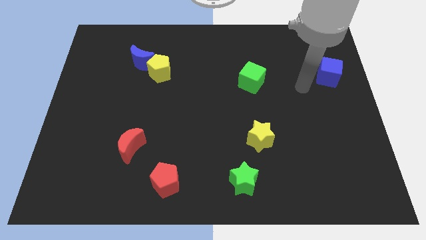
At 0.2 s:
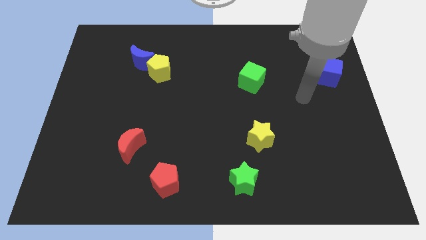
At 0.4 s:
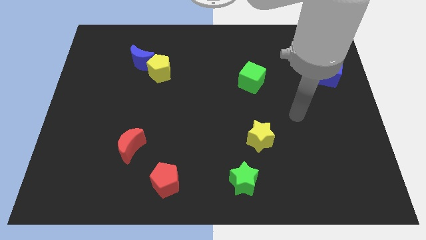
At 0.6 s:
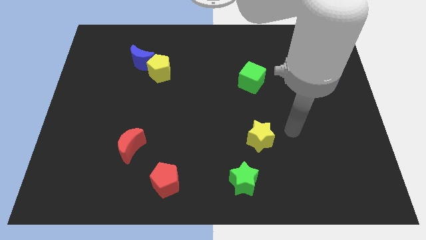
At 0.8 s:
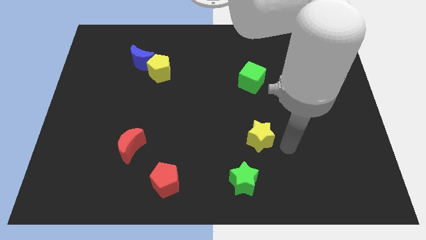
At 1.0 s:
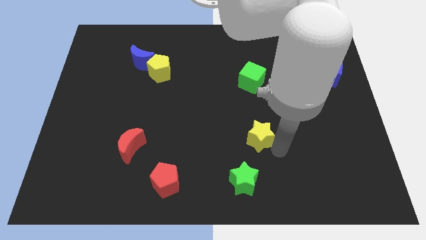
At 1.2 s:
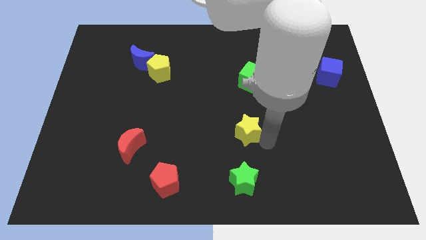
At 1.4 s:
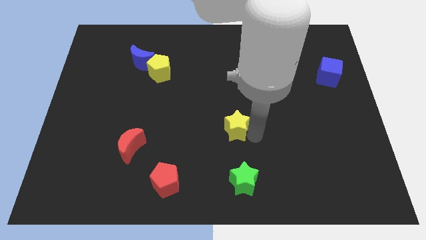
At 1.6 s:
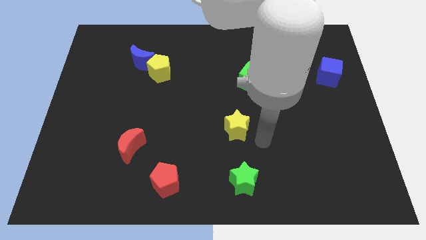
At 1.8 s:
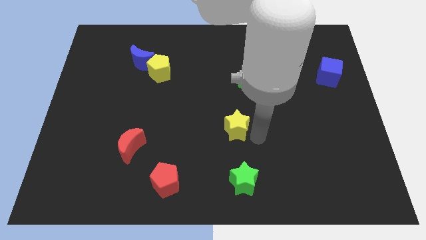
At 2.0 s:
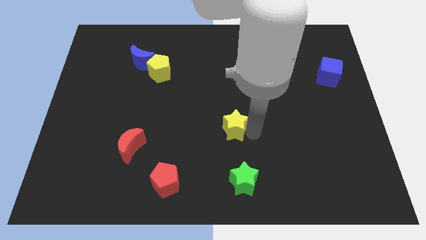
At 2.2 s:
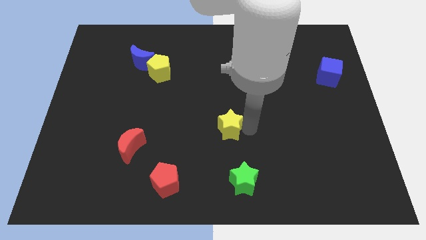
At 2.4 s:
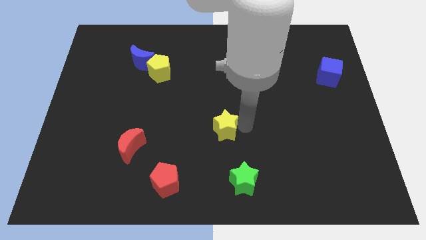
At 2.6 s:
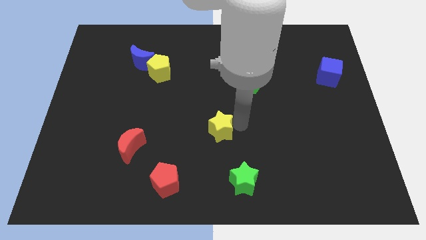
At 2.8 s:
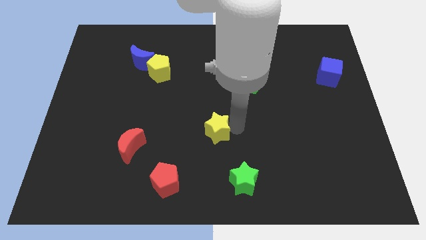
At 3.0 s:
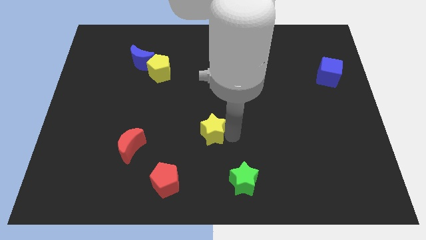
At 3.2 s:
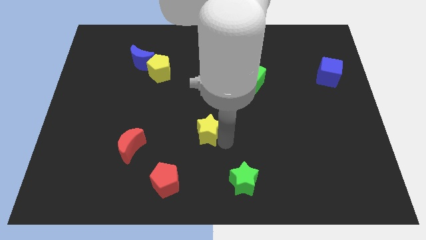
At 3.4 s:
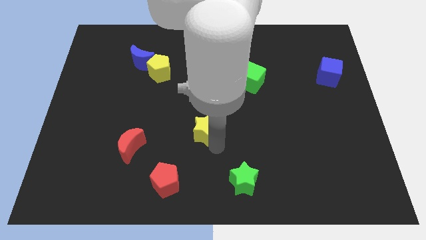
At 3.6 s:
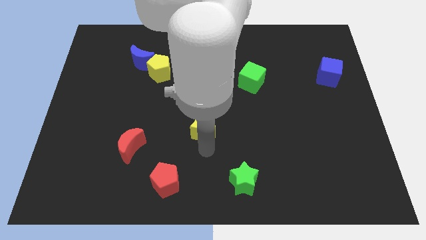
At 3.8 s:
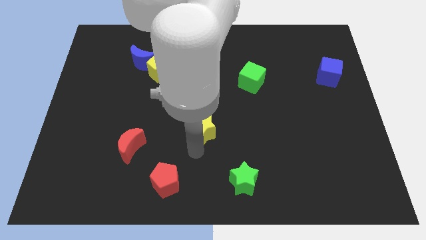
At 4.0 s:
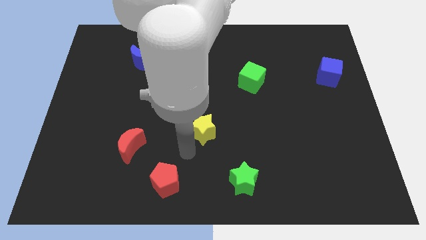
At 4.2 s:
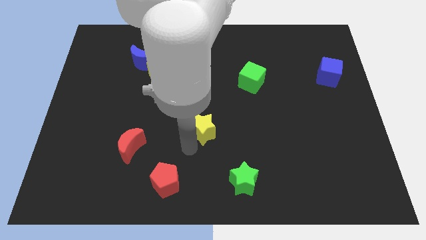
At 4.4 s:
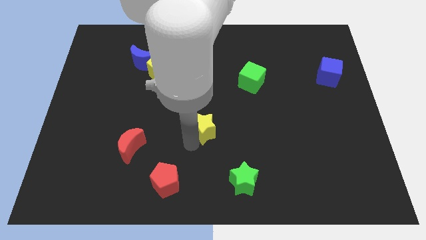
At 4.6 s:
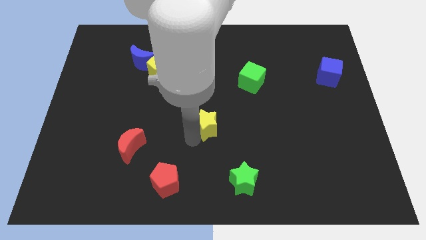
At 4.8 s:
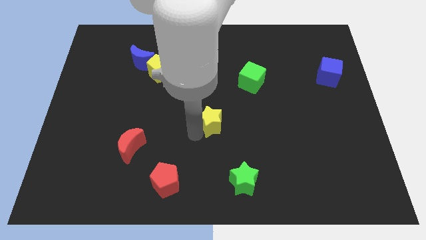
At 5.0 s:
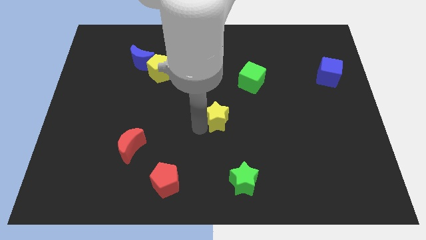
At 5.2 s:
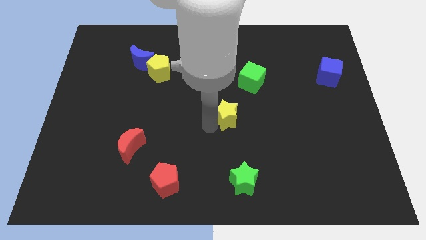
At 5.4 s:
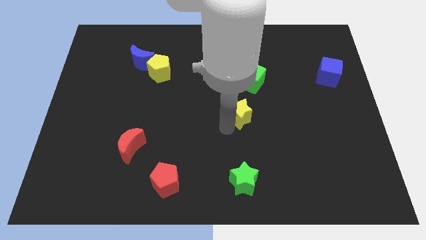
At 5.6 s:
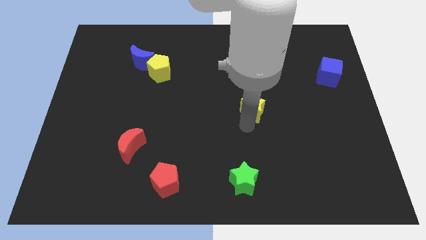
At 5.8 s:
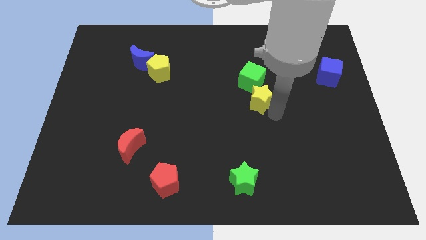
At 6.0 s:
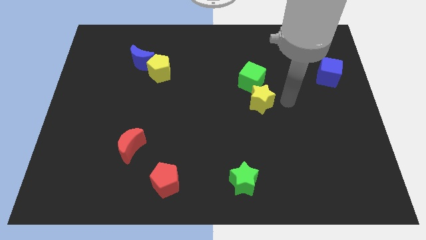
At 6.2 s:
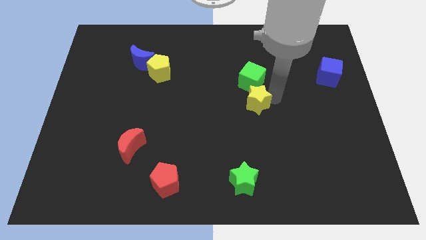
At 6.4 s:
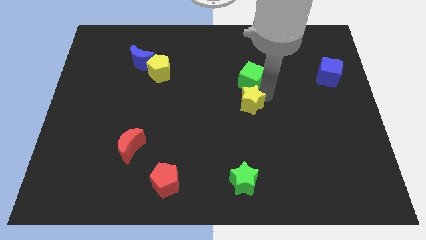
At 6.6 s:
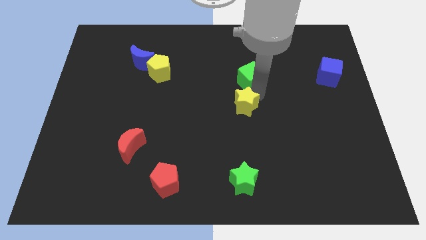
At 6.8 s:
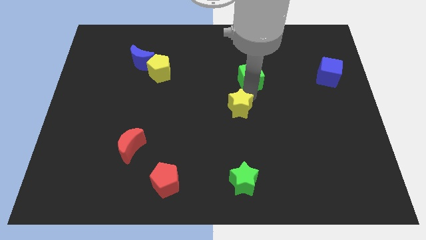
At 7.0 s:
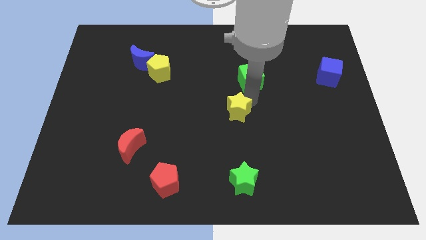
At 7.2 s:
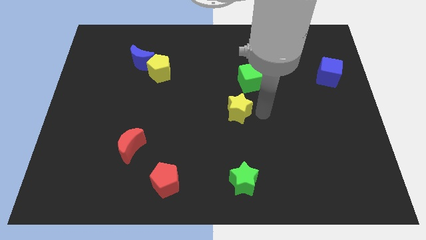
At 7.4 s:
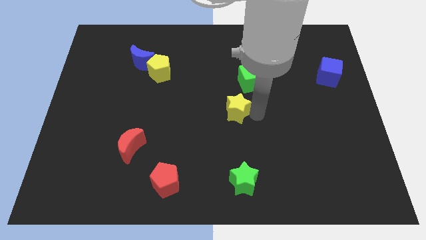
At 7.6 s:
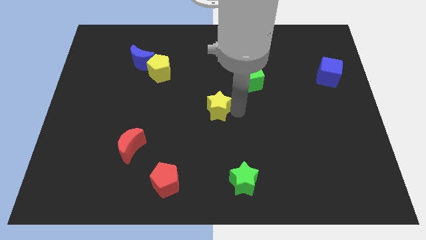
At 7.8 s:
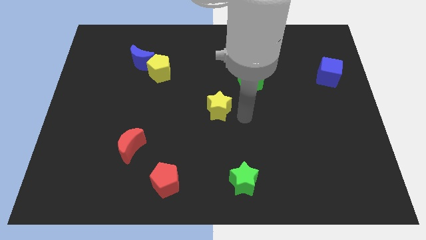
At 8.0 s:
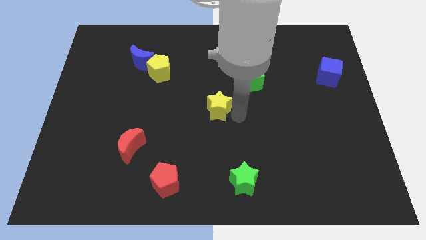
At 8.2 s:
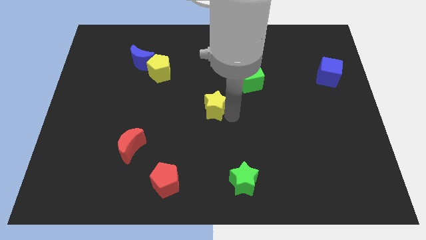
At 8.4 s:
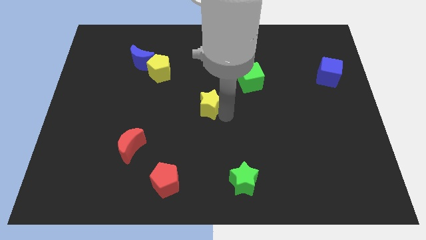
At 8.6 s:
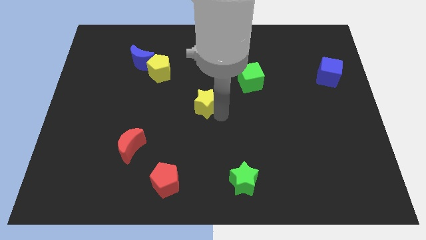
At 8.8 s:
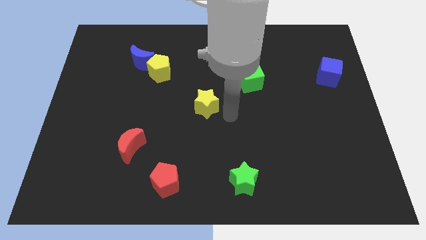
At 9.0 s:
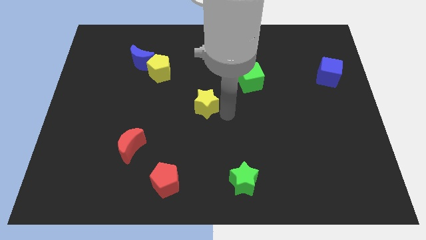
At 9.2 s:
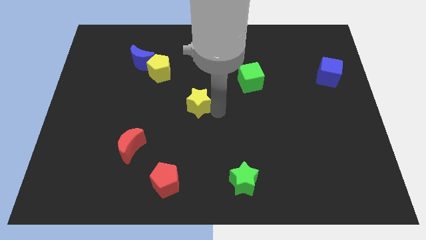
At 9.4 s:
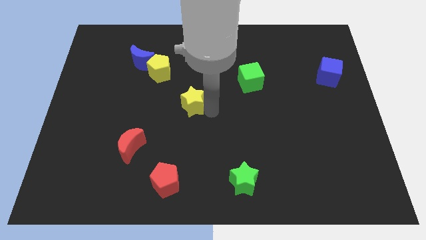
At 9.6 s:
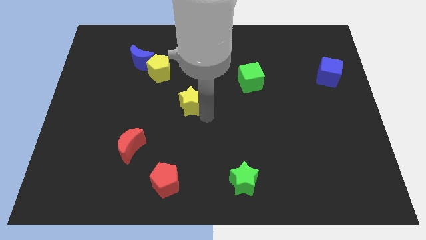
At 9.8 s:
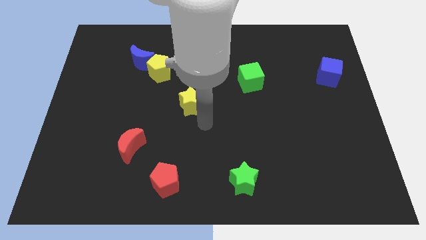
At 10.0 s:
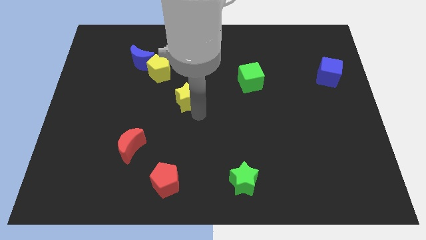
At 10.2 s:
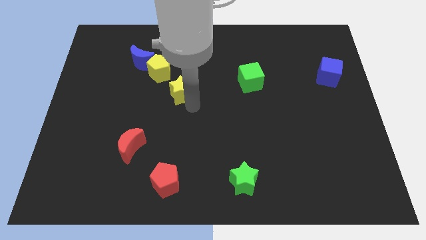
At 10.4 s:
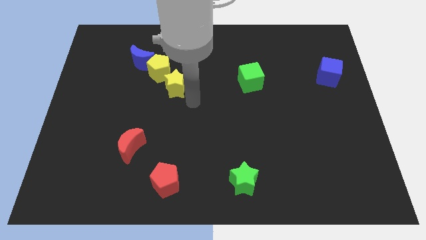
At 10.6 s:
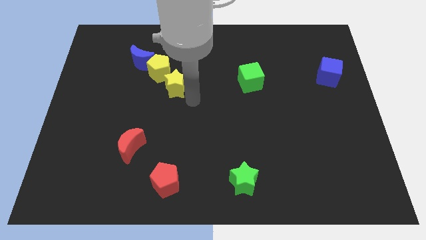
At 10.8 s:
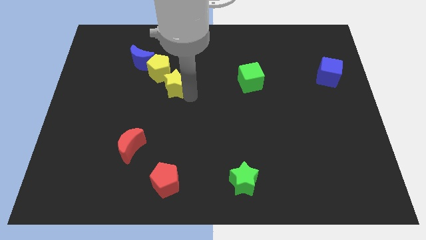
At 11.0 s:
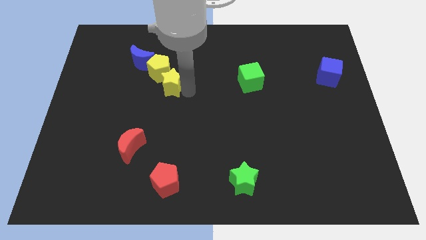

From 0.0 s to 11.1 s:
push the yellow star next to the yellow pentagon

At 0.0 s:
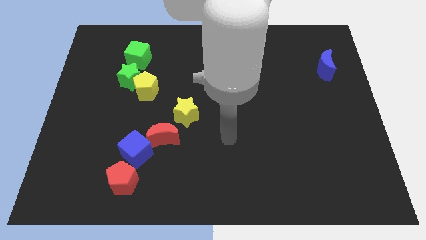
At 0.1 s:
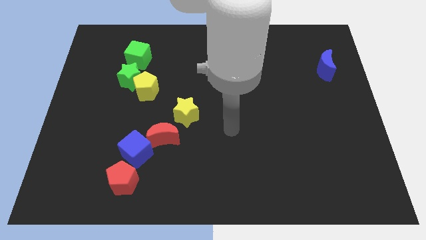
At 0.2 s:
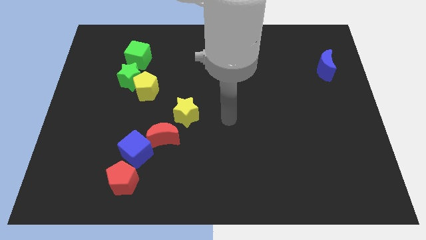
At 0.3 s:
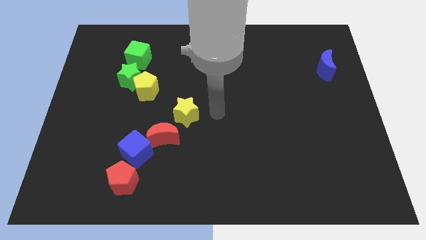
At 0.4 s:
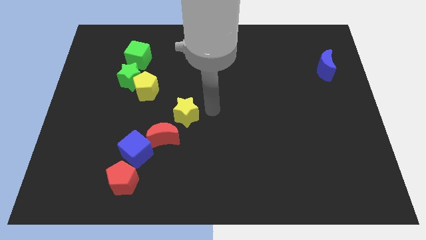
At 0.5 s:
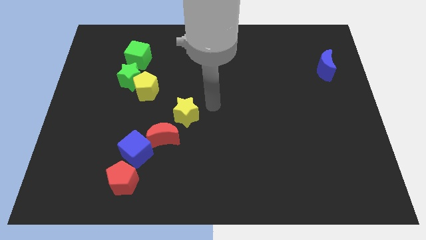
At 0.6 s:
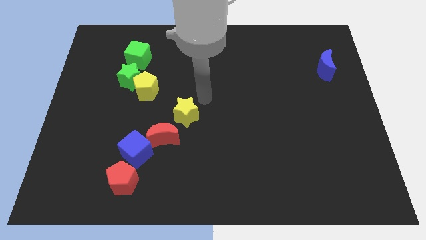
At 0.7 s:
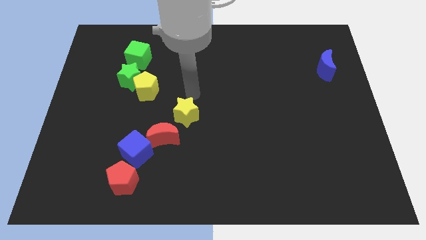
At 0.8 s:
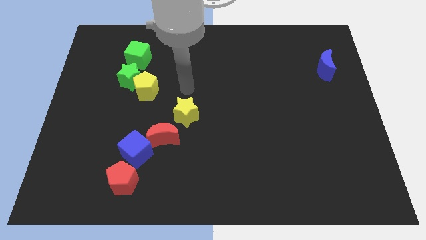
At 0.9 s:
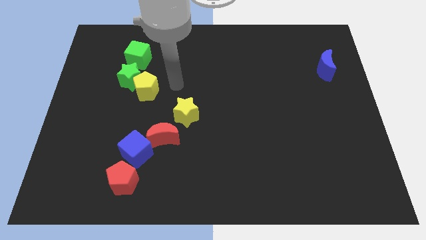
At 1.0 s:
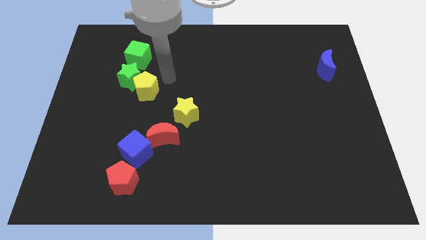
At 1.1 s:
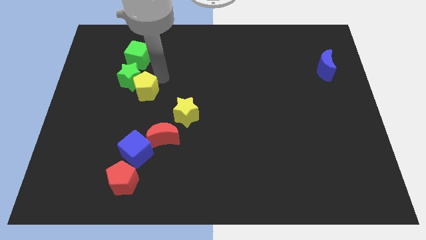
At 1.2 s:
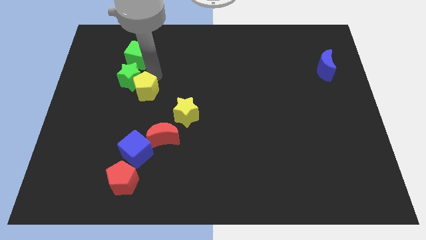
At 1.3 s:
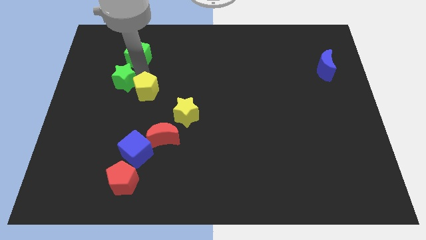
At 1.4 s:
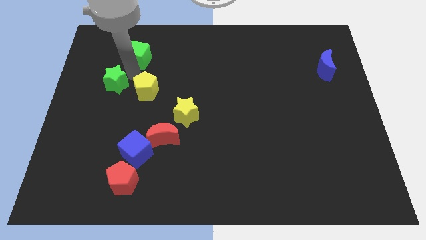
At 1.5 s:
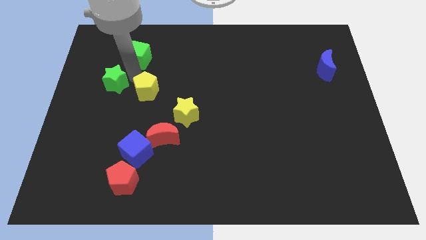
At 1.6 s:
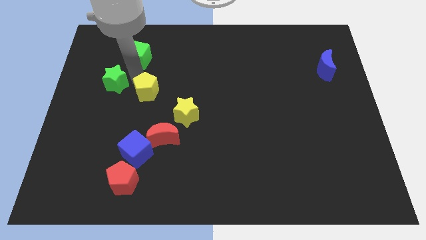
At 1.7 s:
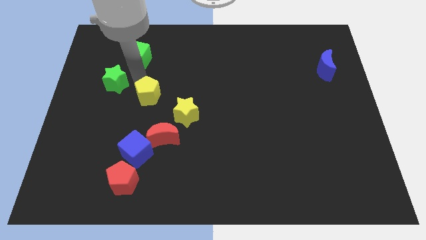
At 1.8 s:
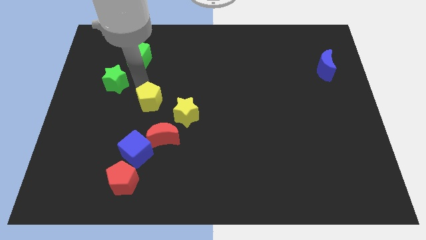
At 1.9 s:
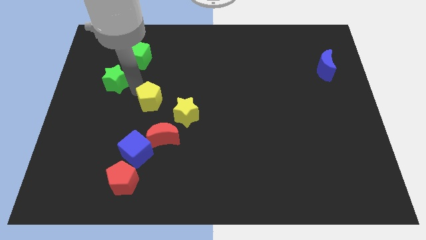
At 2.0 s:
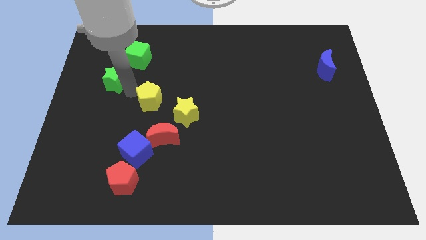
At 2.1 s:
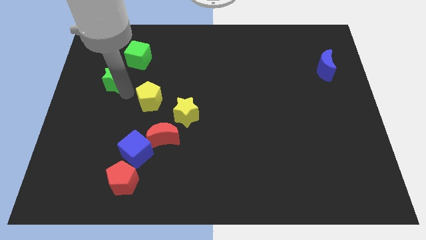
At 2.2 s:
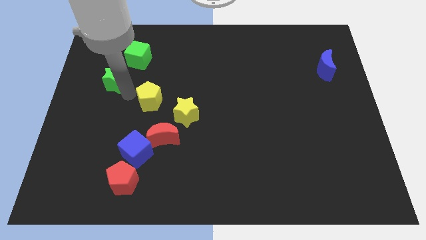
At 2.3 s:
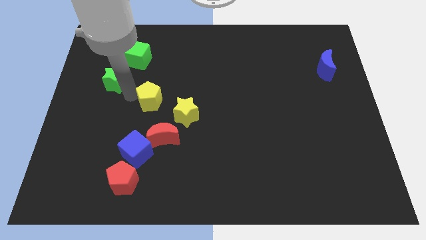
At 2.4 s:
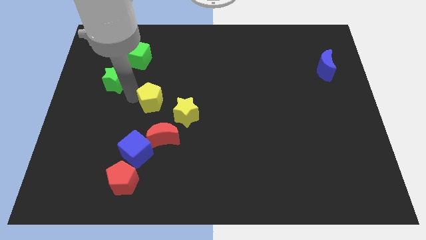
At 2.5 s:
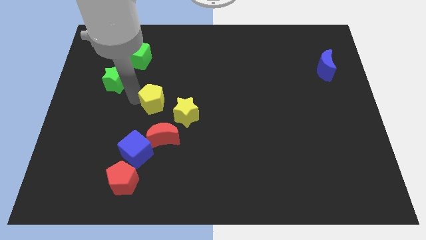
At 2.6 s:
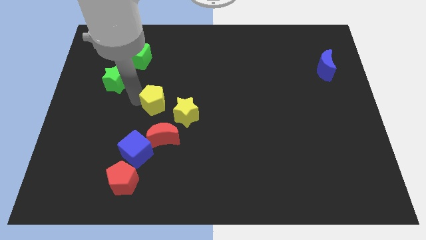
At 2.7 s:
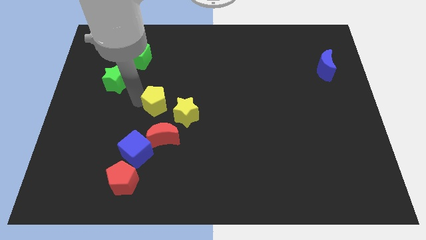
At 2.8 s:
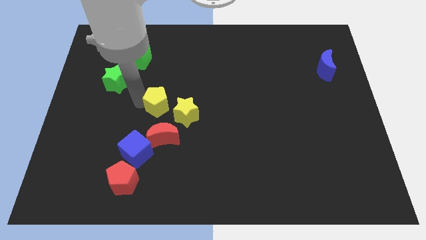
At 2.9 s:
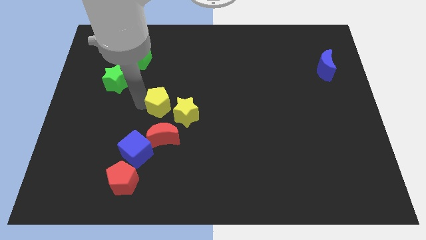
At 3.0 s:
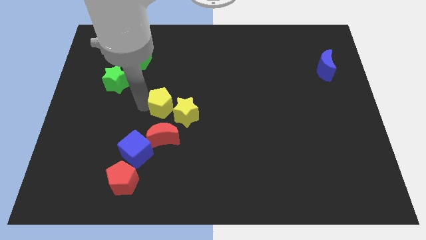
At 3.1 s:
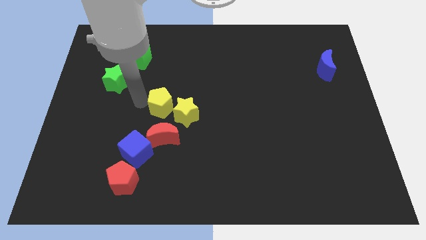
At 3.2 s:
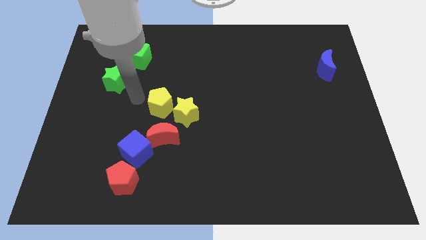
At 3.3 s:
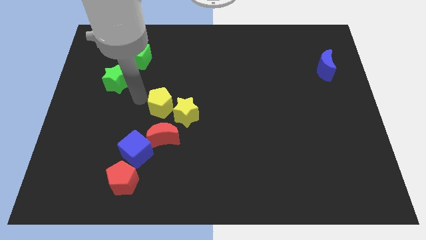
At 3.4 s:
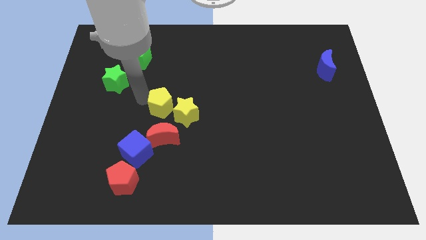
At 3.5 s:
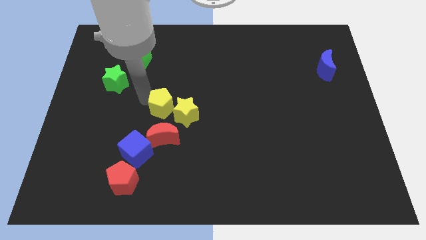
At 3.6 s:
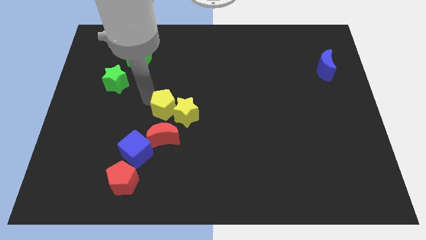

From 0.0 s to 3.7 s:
slide the yellow pentagon to the yellow star
